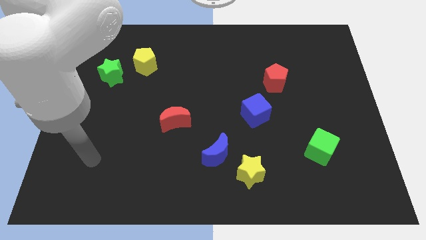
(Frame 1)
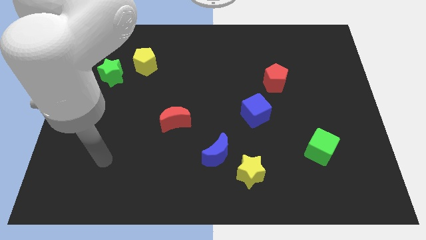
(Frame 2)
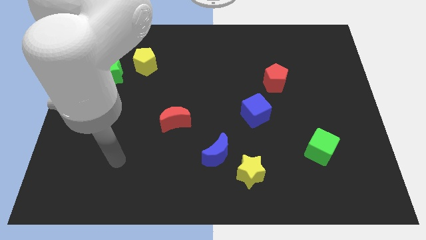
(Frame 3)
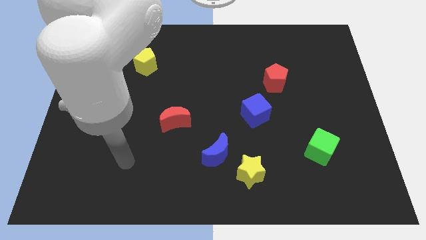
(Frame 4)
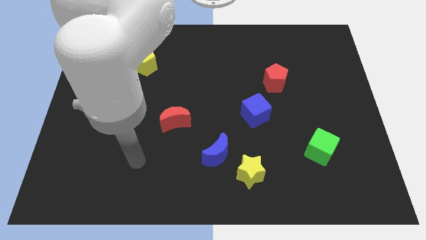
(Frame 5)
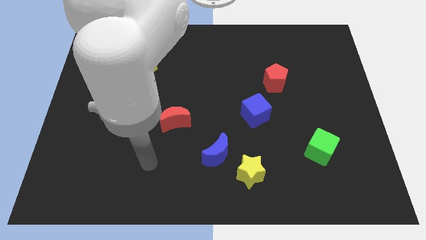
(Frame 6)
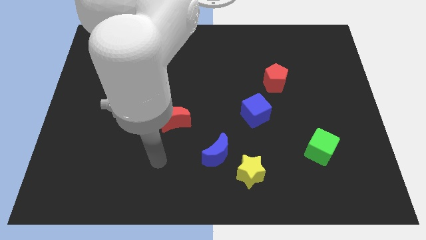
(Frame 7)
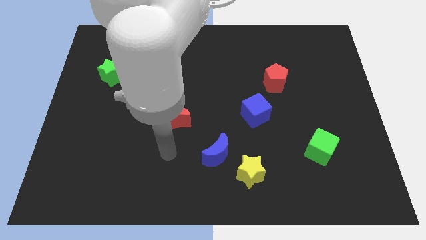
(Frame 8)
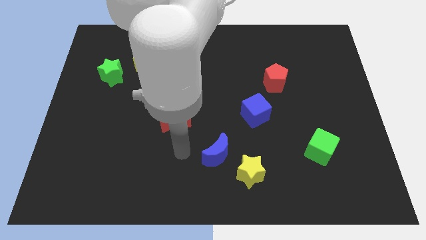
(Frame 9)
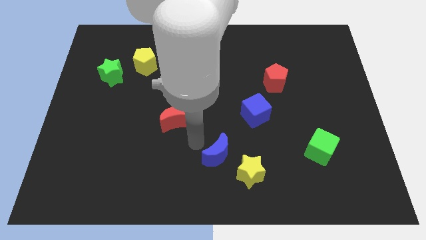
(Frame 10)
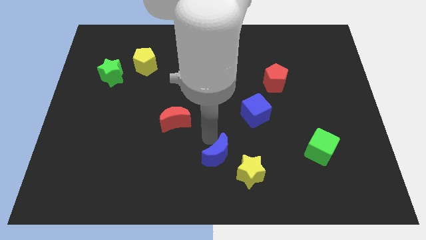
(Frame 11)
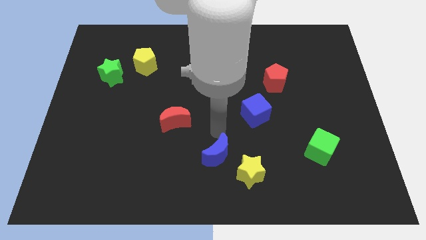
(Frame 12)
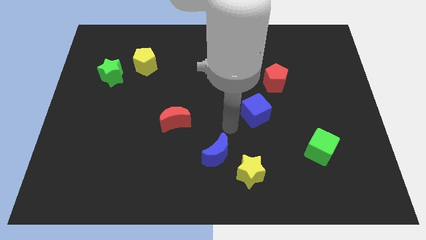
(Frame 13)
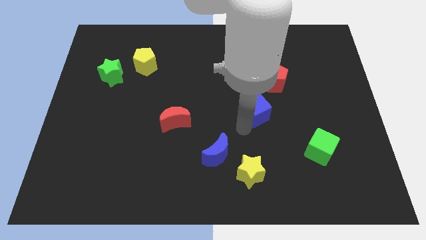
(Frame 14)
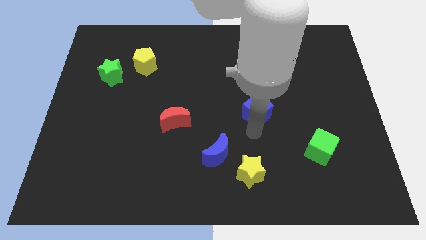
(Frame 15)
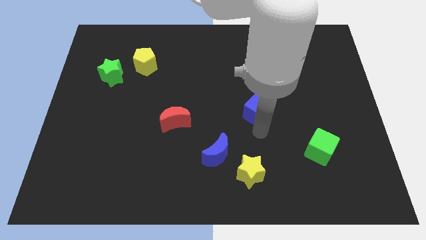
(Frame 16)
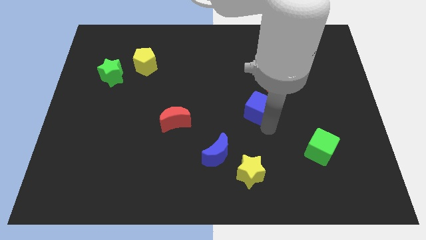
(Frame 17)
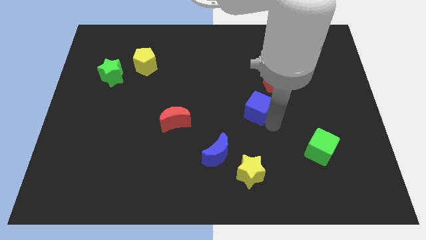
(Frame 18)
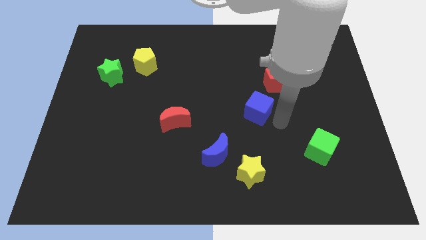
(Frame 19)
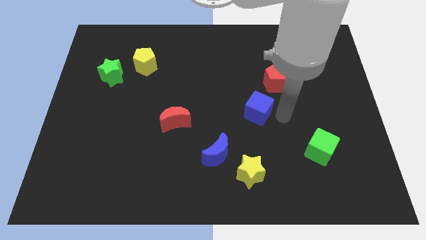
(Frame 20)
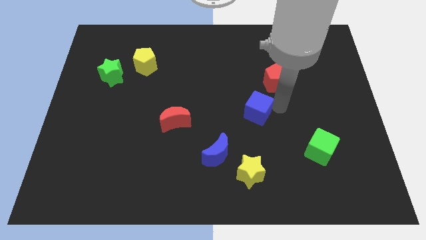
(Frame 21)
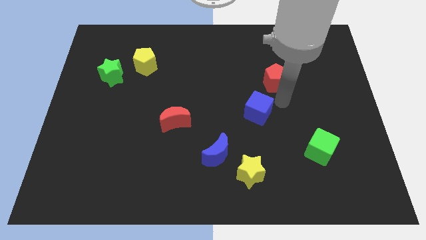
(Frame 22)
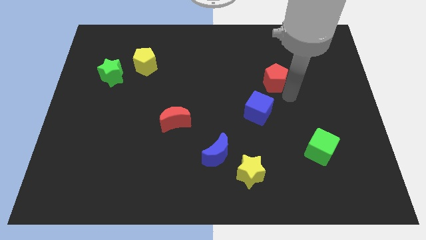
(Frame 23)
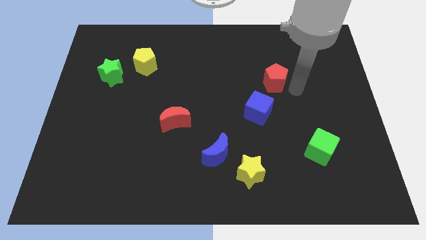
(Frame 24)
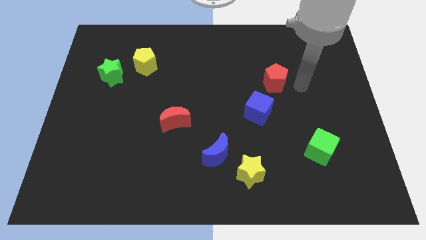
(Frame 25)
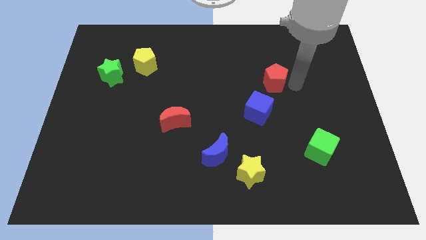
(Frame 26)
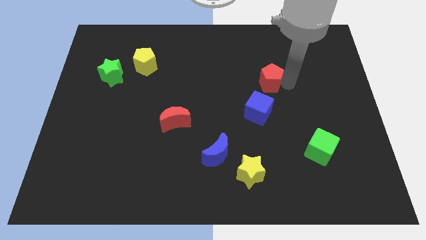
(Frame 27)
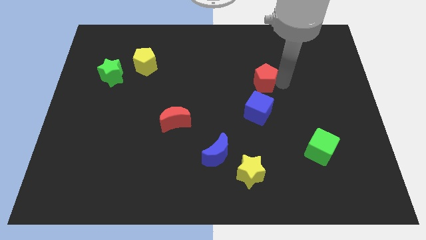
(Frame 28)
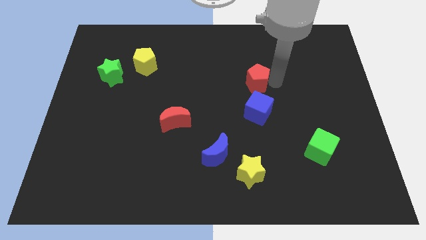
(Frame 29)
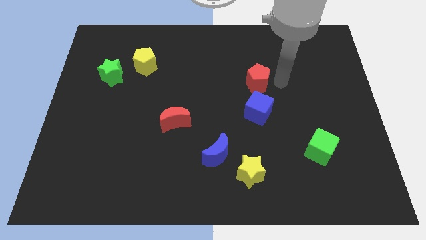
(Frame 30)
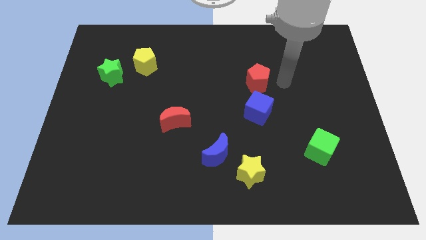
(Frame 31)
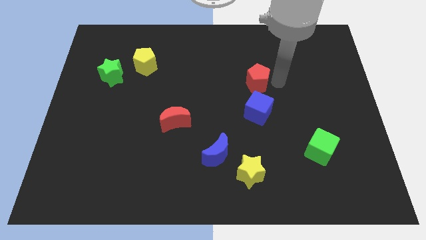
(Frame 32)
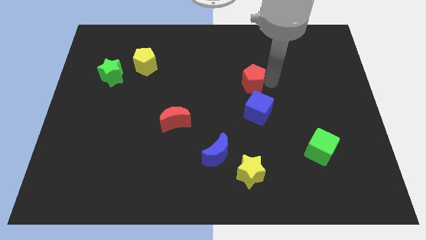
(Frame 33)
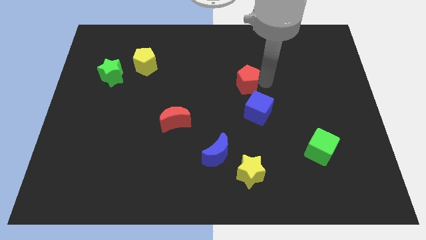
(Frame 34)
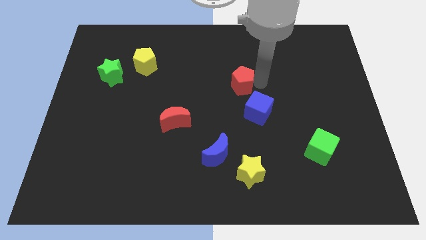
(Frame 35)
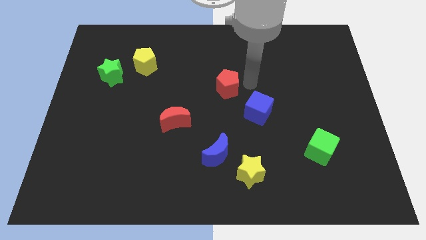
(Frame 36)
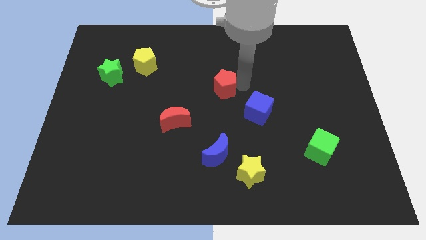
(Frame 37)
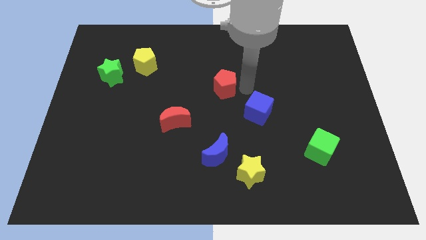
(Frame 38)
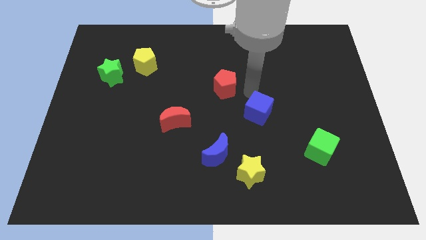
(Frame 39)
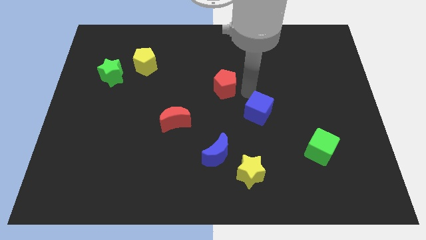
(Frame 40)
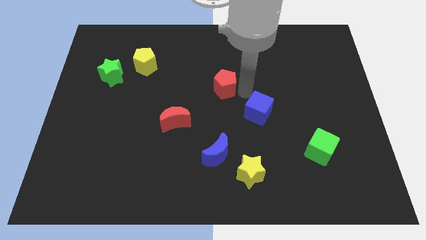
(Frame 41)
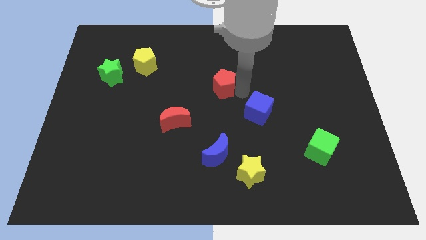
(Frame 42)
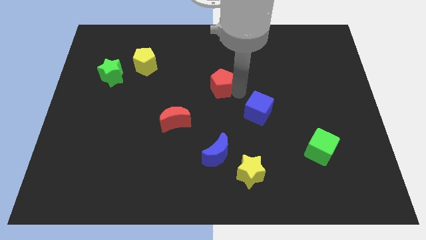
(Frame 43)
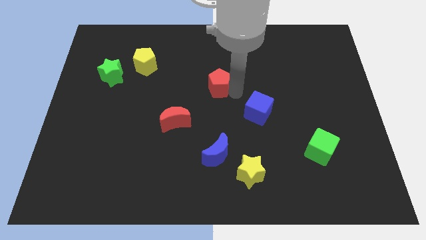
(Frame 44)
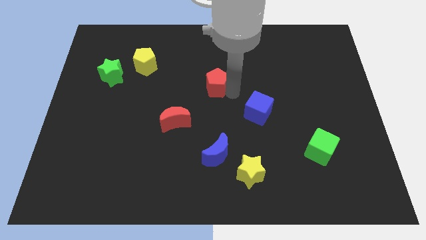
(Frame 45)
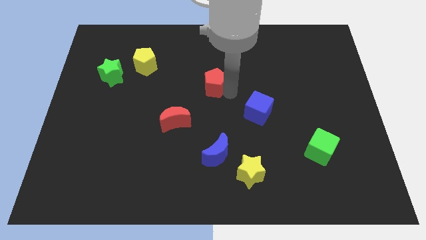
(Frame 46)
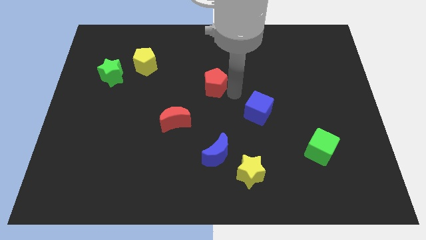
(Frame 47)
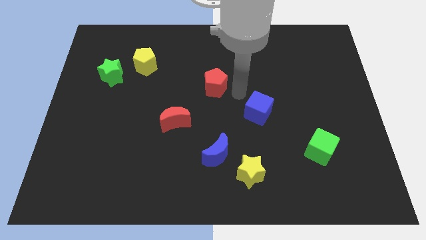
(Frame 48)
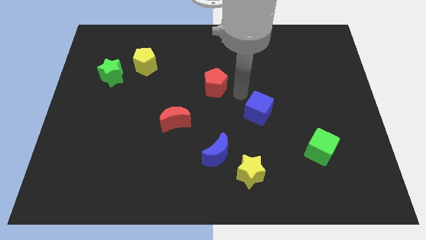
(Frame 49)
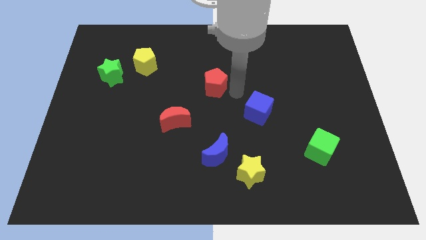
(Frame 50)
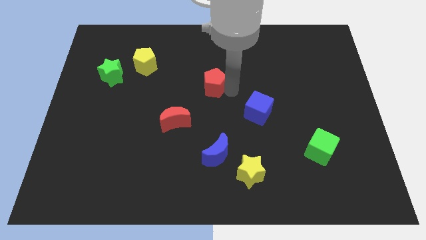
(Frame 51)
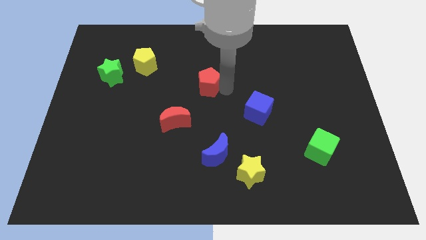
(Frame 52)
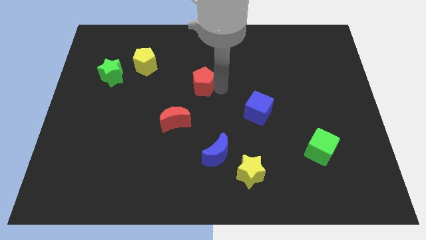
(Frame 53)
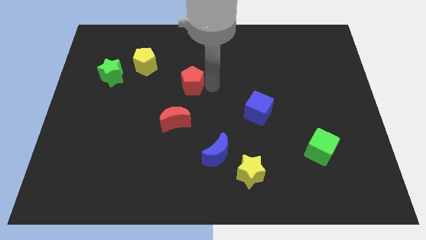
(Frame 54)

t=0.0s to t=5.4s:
move the red pentagon to the left

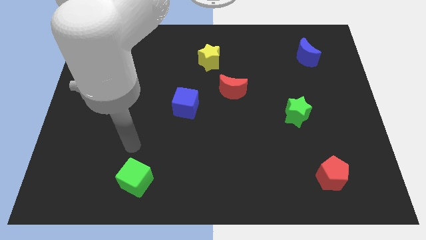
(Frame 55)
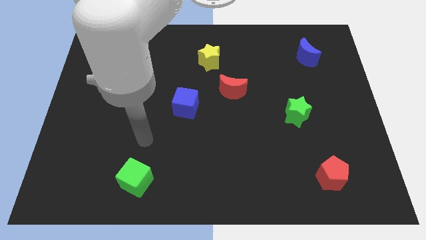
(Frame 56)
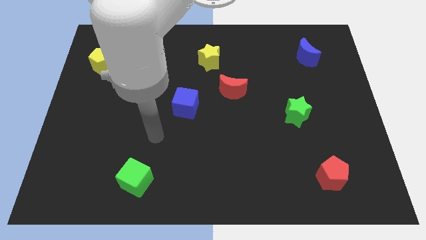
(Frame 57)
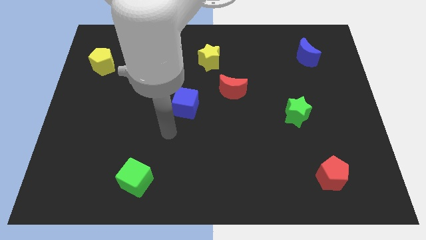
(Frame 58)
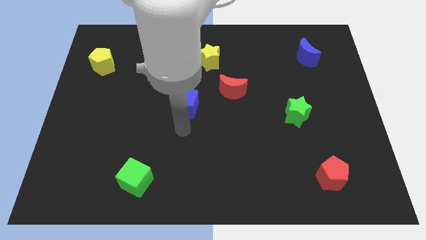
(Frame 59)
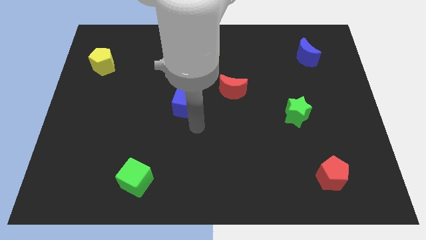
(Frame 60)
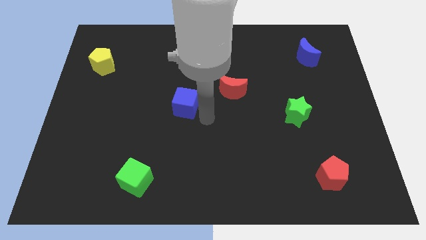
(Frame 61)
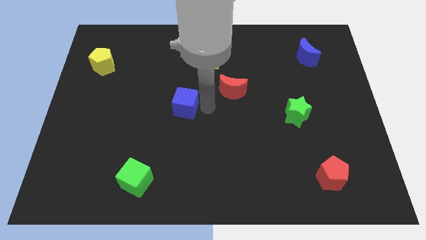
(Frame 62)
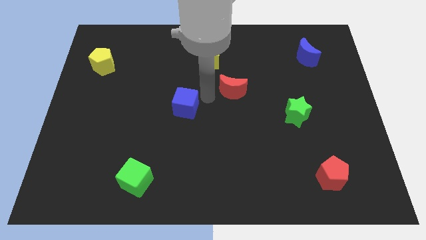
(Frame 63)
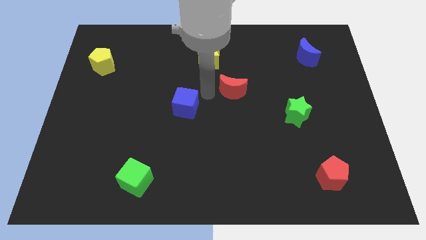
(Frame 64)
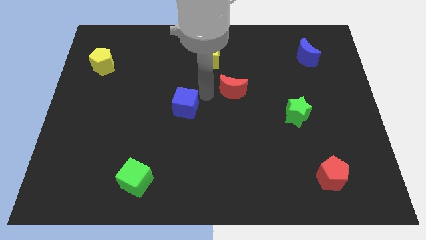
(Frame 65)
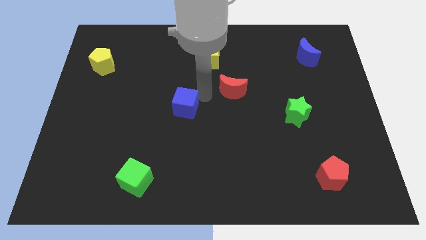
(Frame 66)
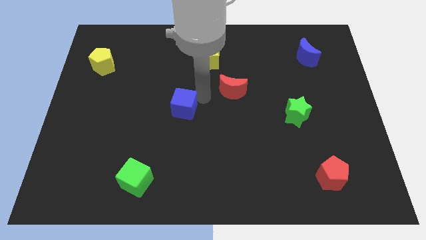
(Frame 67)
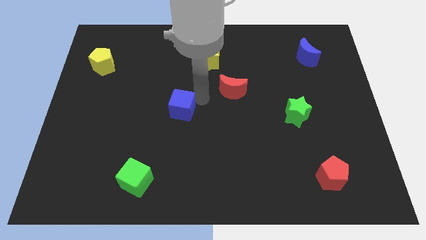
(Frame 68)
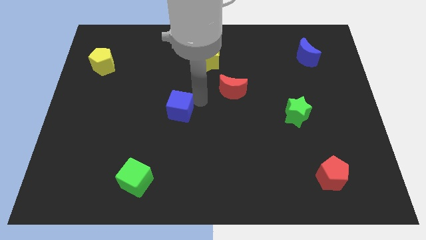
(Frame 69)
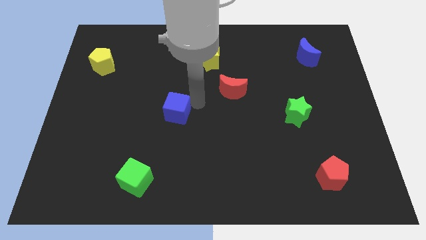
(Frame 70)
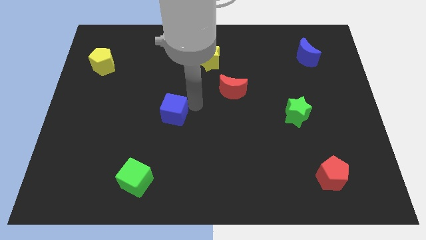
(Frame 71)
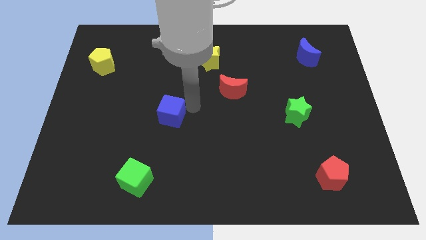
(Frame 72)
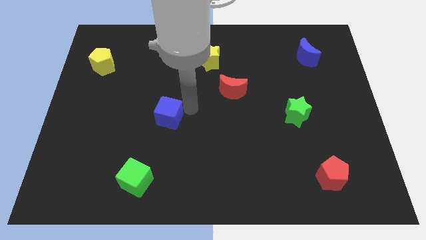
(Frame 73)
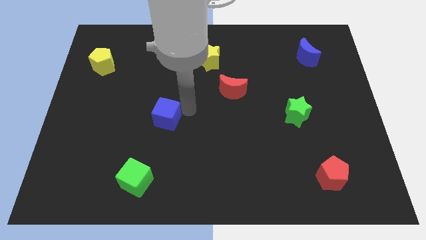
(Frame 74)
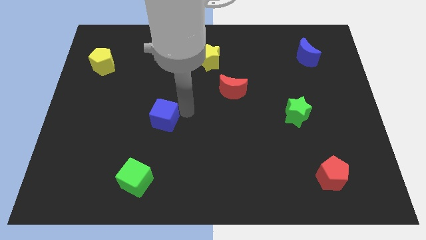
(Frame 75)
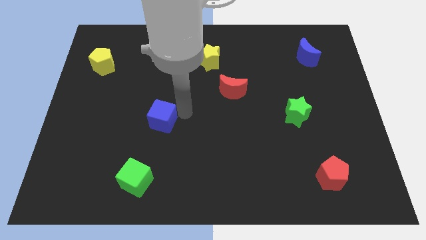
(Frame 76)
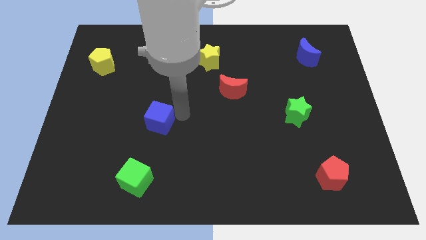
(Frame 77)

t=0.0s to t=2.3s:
slightly move the blue cube down and to the left
